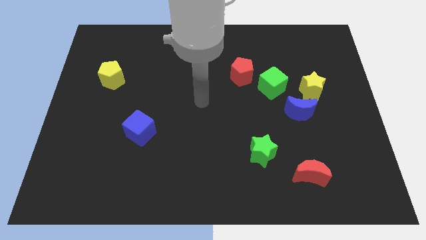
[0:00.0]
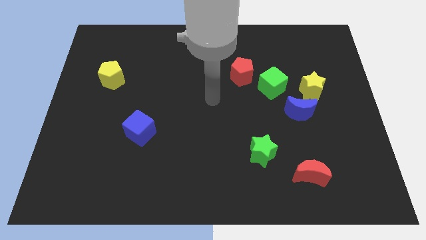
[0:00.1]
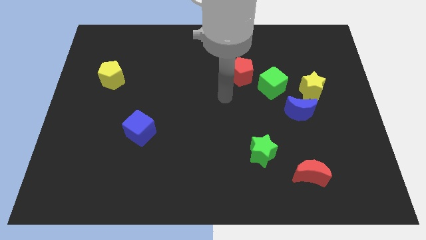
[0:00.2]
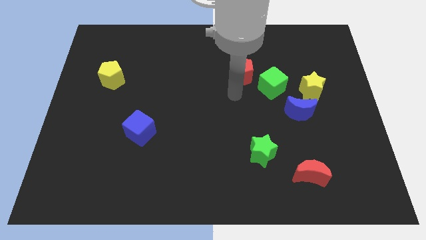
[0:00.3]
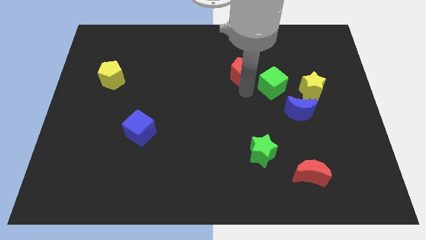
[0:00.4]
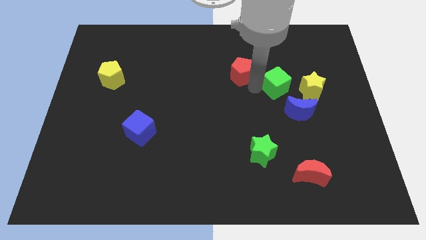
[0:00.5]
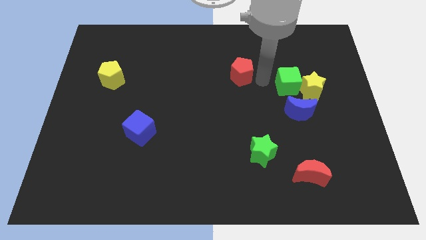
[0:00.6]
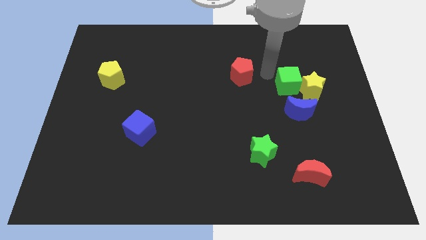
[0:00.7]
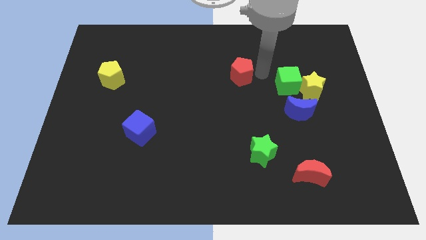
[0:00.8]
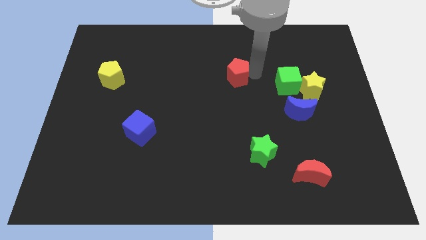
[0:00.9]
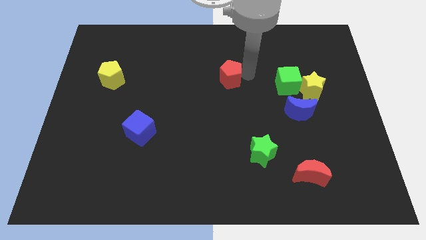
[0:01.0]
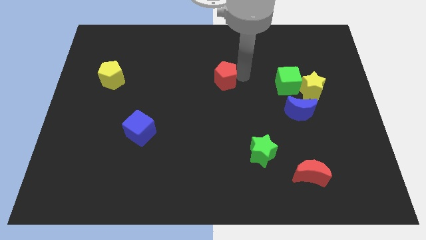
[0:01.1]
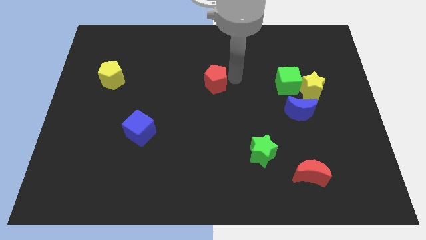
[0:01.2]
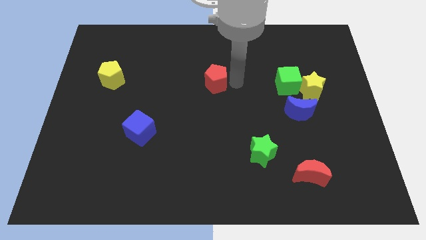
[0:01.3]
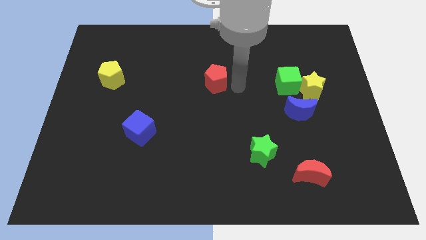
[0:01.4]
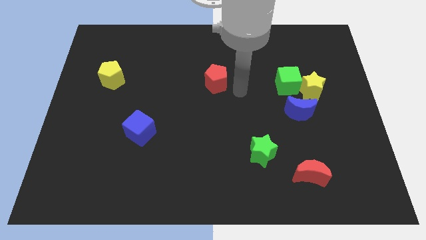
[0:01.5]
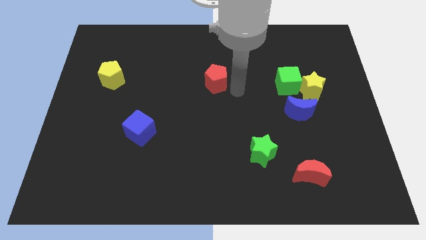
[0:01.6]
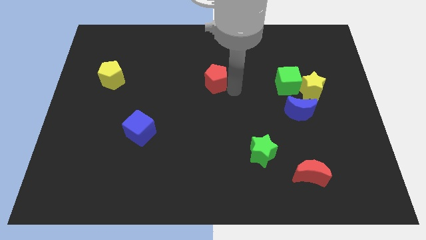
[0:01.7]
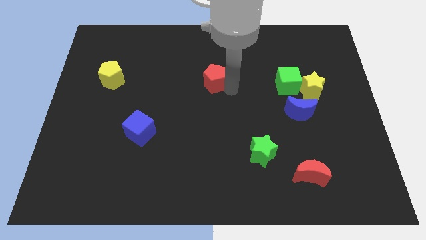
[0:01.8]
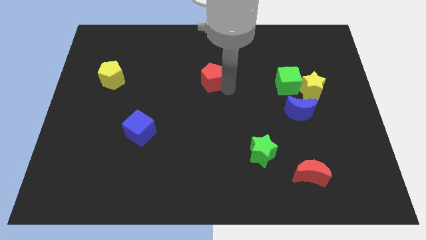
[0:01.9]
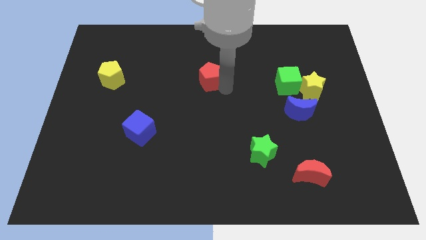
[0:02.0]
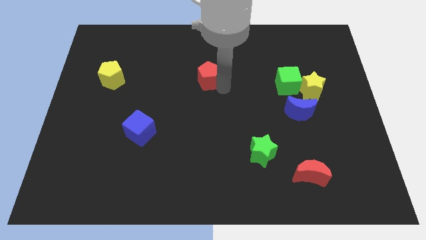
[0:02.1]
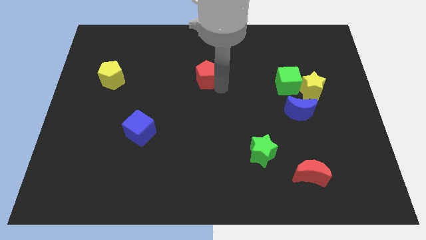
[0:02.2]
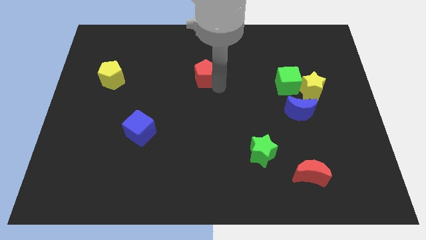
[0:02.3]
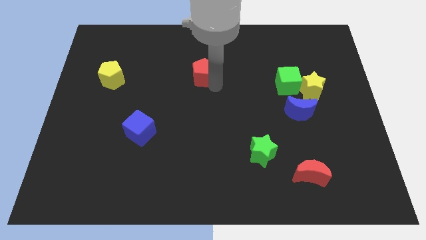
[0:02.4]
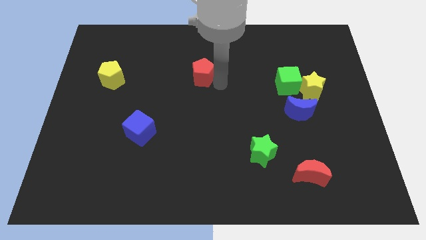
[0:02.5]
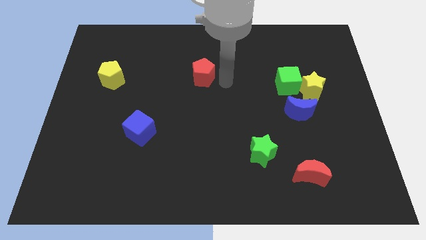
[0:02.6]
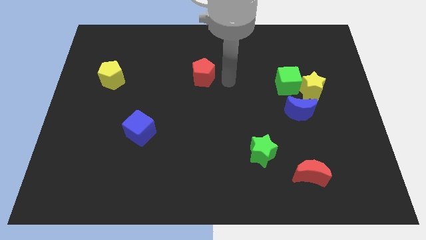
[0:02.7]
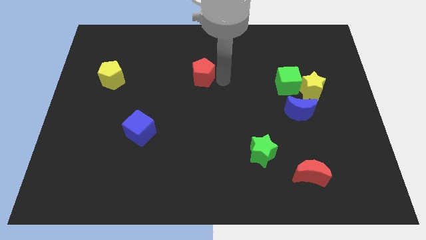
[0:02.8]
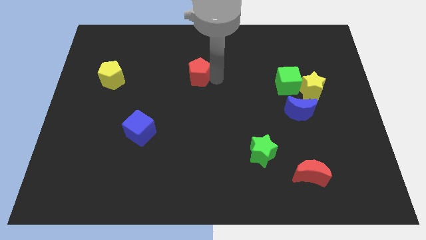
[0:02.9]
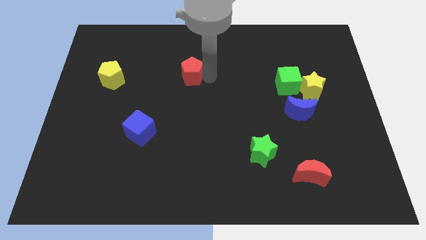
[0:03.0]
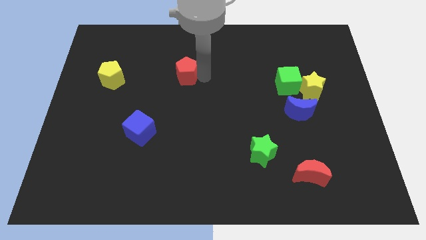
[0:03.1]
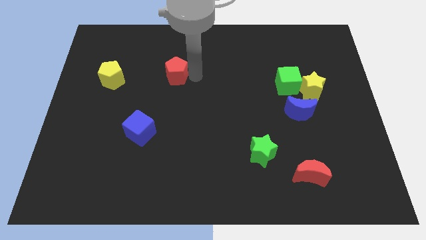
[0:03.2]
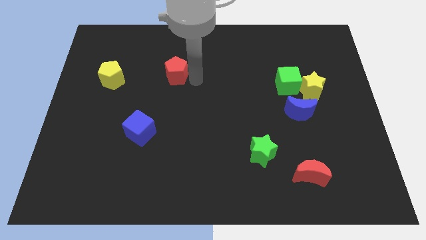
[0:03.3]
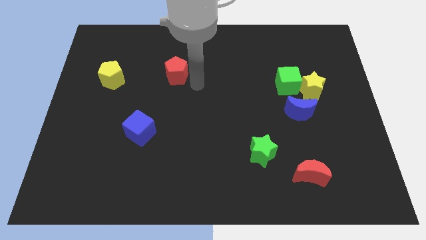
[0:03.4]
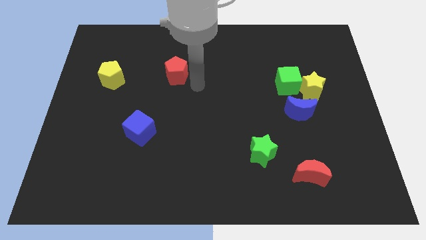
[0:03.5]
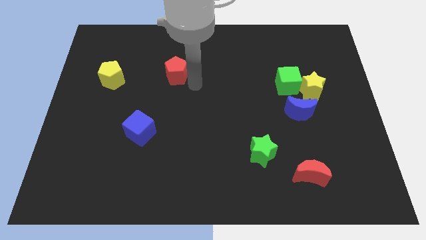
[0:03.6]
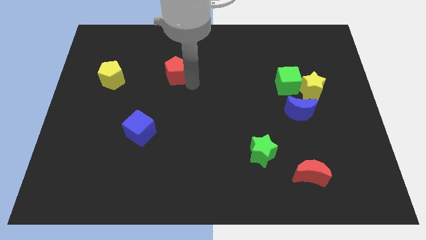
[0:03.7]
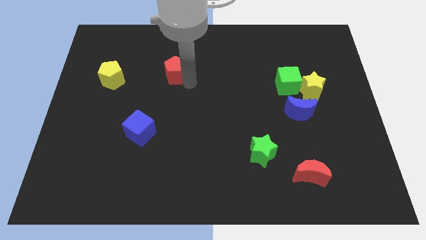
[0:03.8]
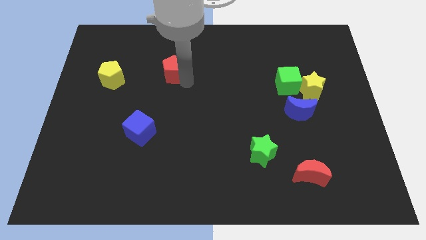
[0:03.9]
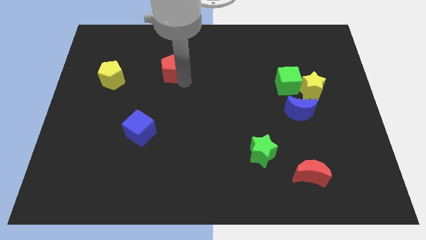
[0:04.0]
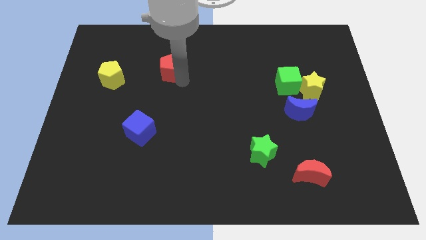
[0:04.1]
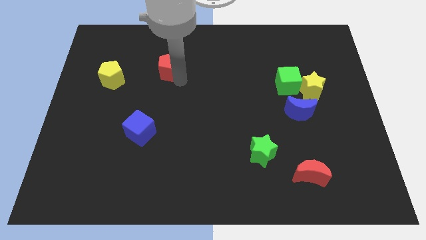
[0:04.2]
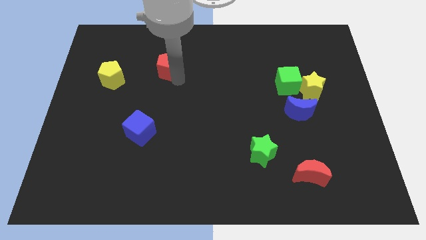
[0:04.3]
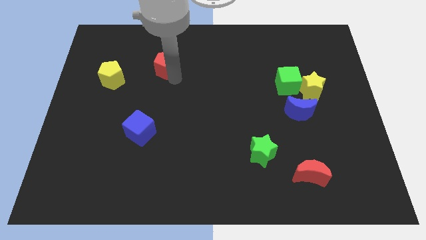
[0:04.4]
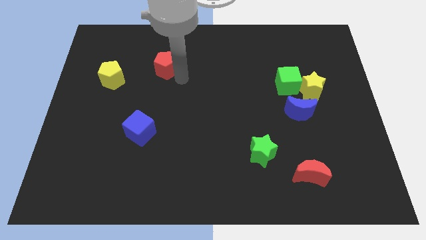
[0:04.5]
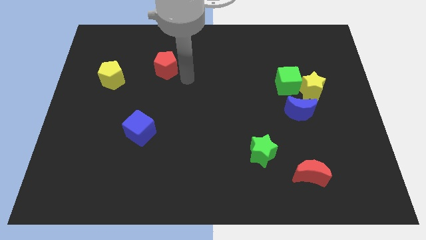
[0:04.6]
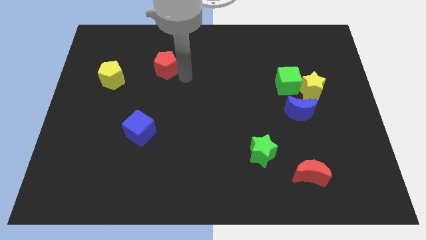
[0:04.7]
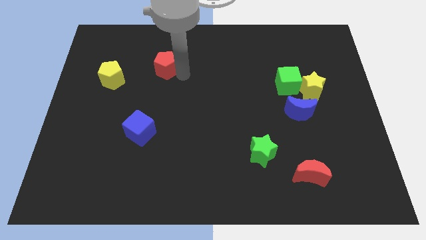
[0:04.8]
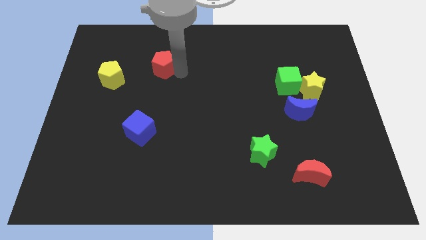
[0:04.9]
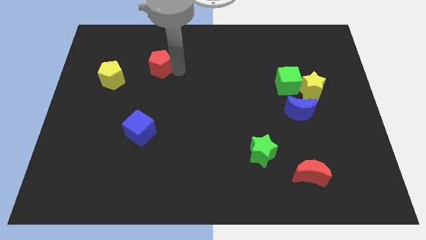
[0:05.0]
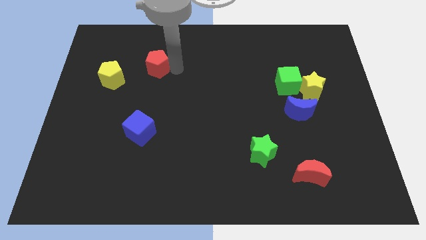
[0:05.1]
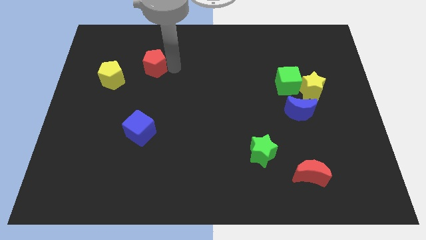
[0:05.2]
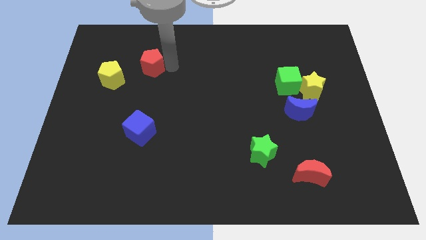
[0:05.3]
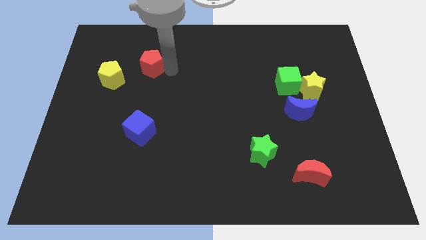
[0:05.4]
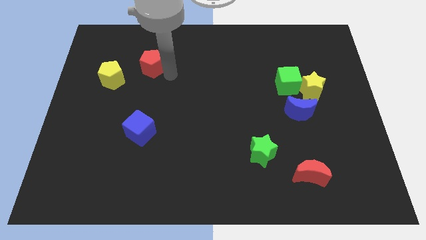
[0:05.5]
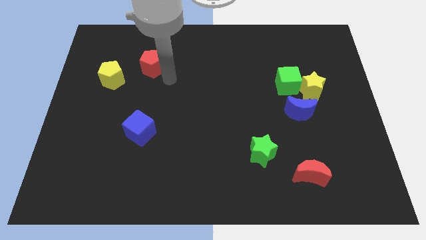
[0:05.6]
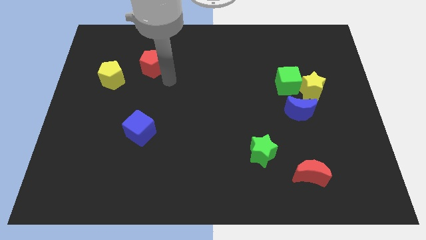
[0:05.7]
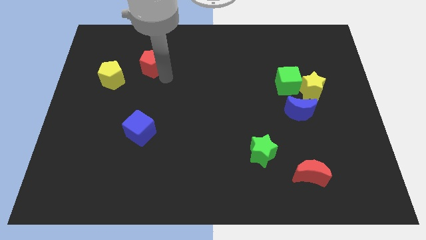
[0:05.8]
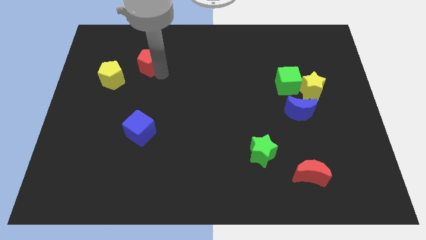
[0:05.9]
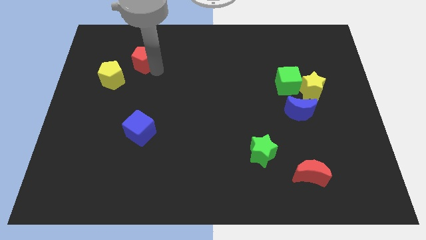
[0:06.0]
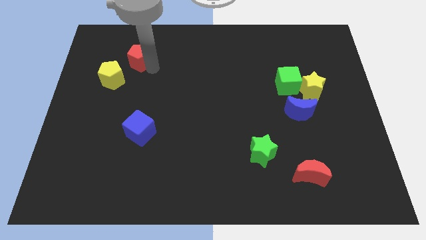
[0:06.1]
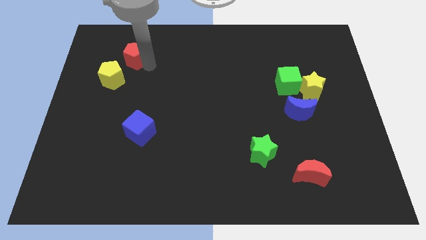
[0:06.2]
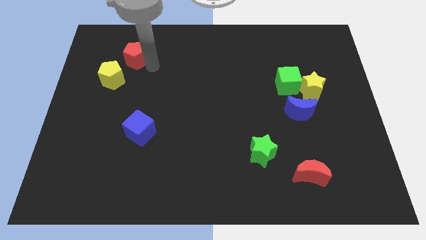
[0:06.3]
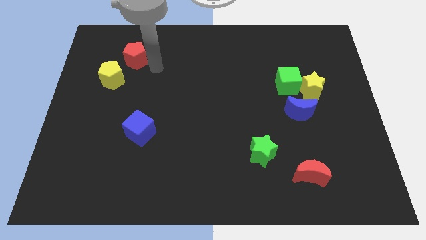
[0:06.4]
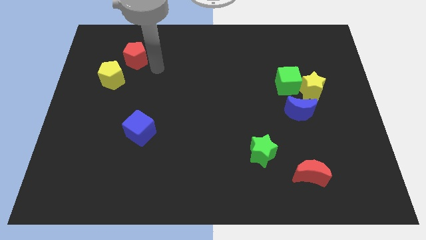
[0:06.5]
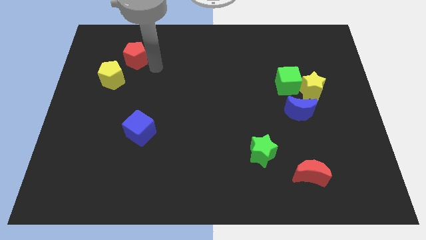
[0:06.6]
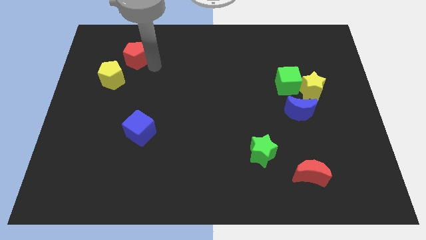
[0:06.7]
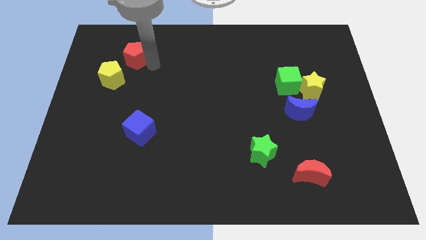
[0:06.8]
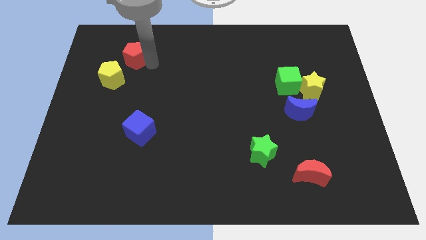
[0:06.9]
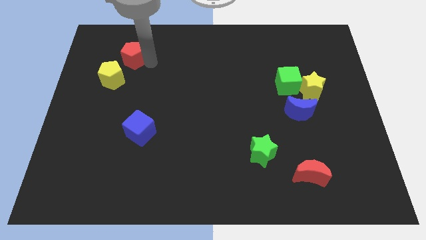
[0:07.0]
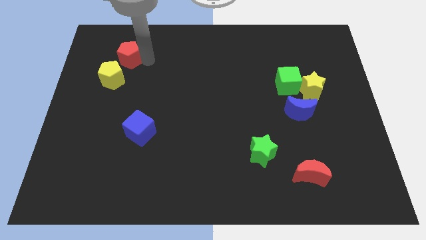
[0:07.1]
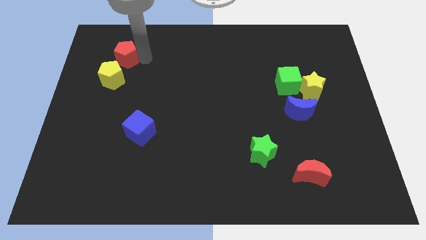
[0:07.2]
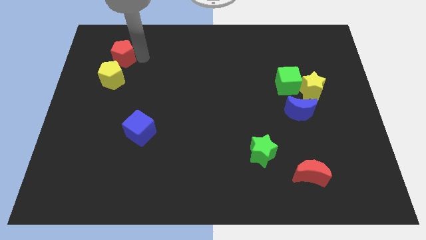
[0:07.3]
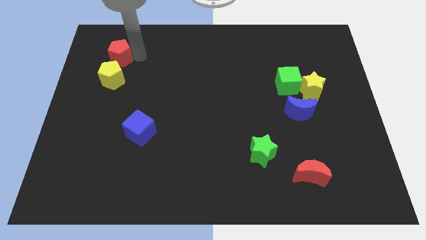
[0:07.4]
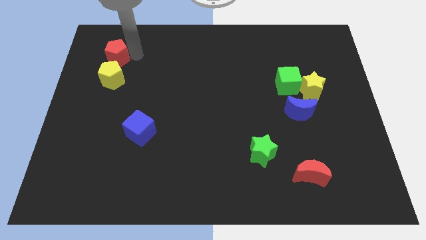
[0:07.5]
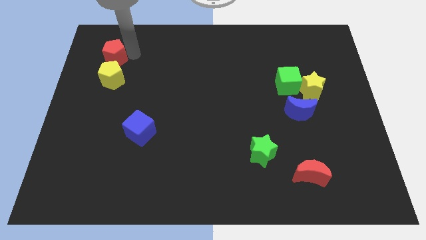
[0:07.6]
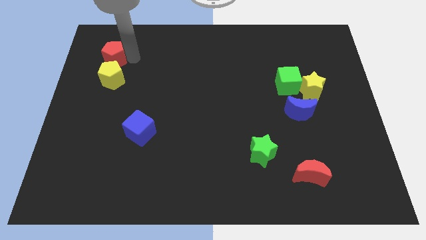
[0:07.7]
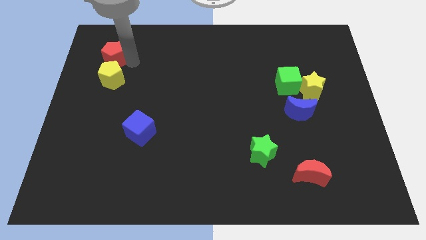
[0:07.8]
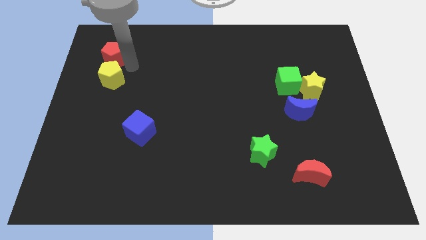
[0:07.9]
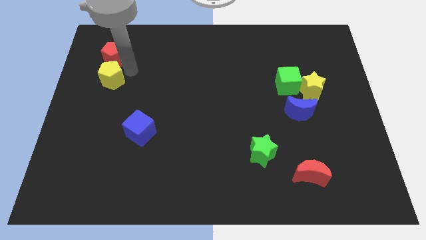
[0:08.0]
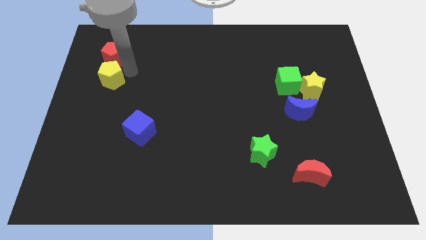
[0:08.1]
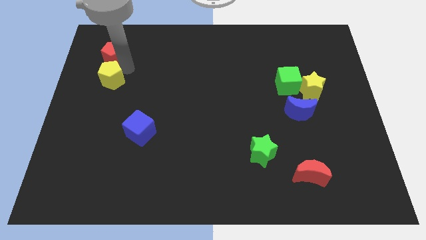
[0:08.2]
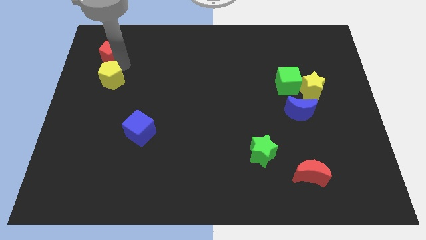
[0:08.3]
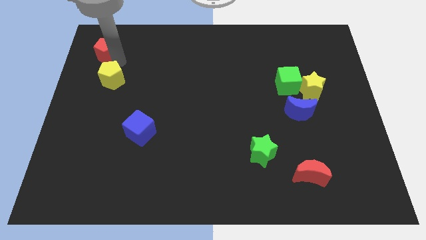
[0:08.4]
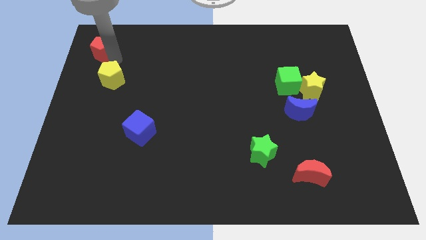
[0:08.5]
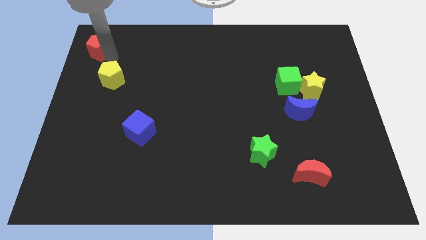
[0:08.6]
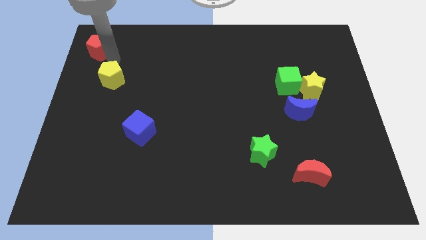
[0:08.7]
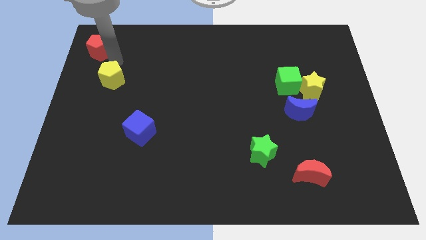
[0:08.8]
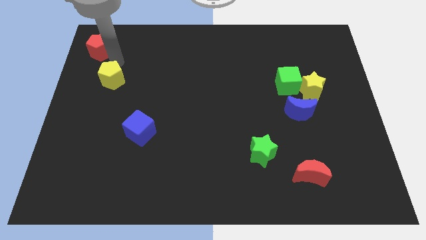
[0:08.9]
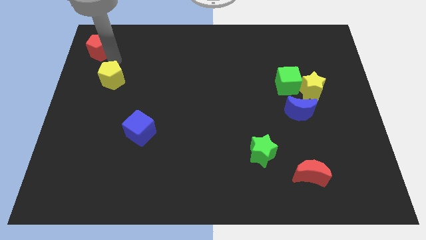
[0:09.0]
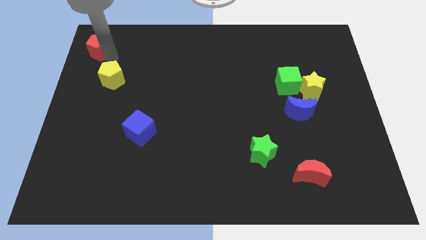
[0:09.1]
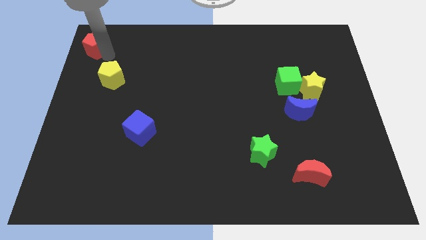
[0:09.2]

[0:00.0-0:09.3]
put the red pentagon to the upper left corner
